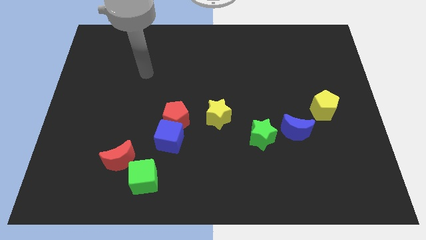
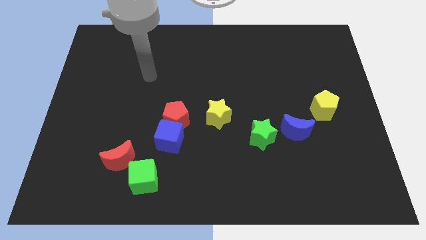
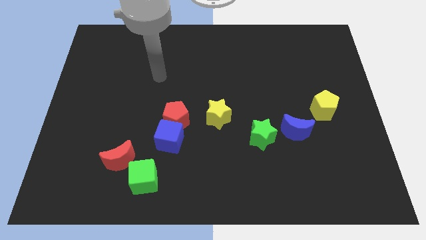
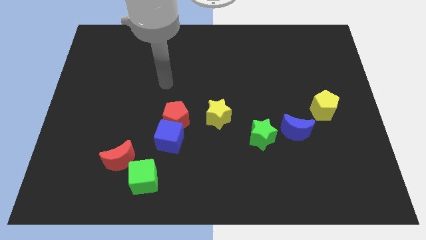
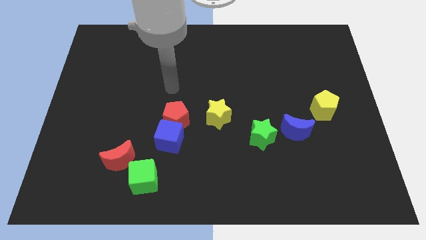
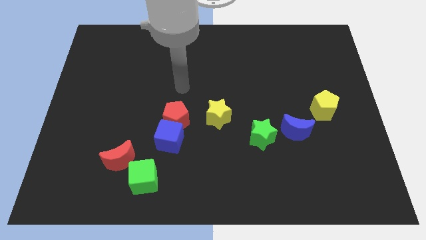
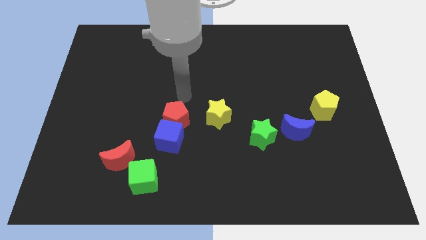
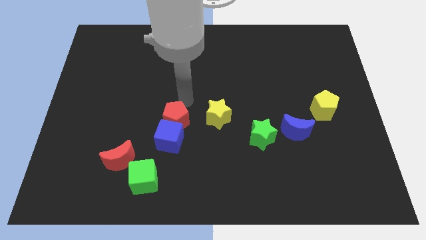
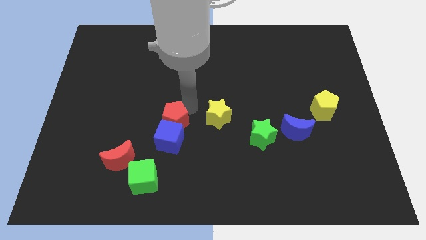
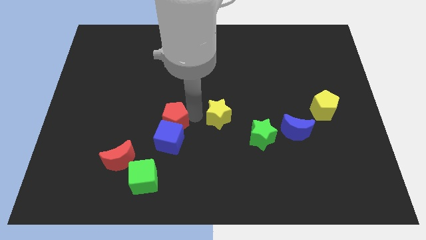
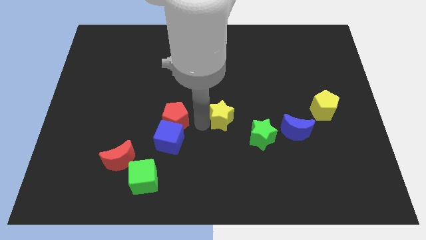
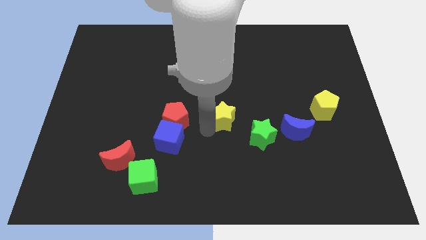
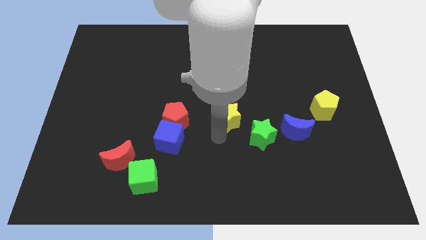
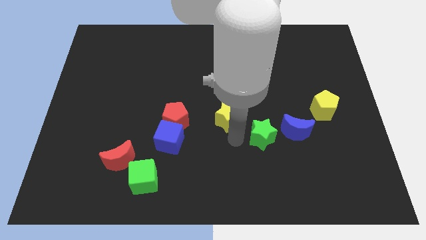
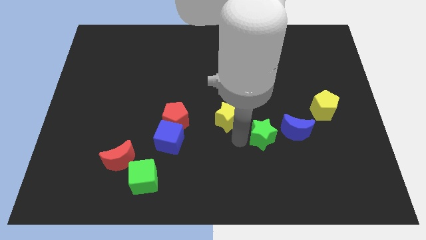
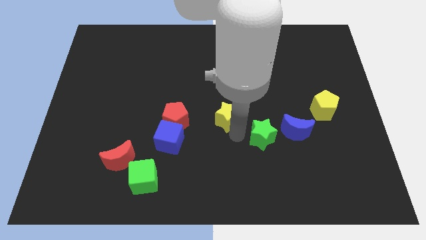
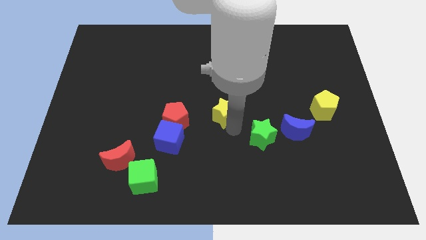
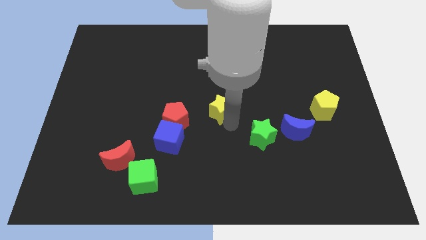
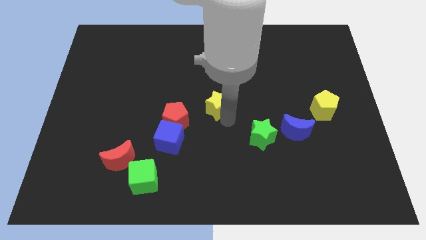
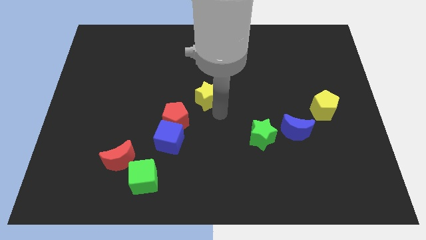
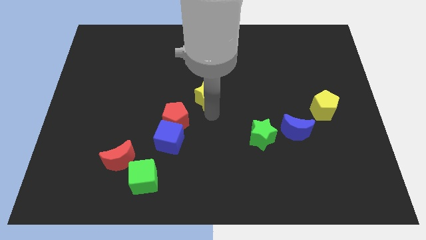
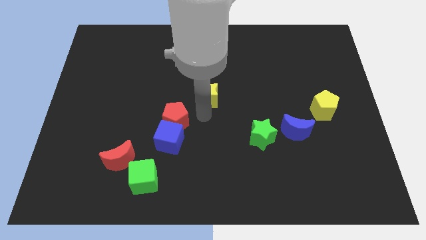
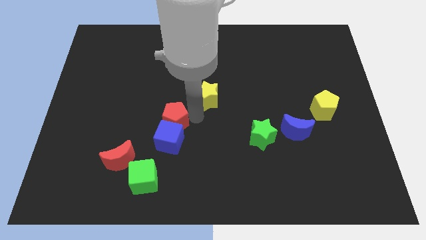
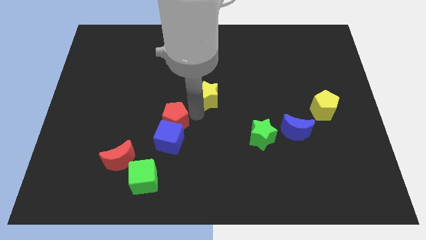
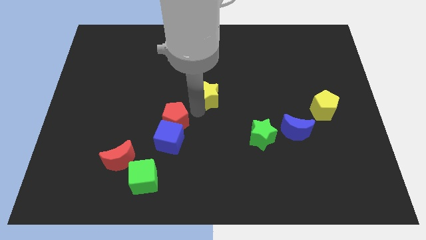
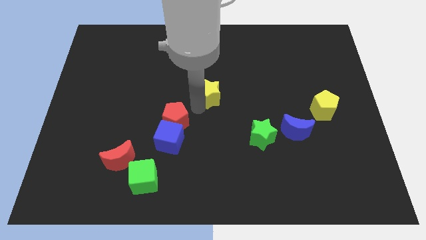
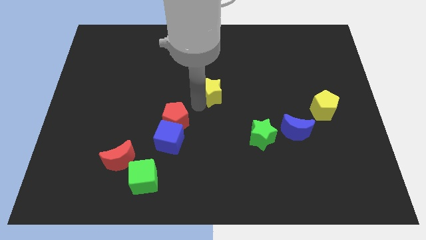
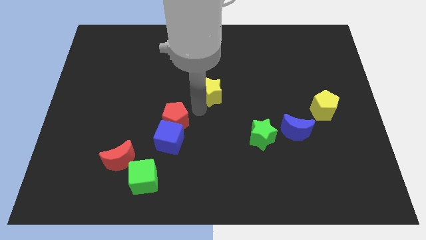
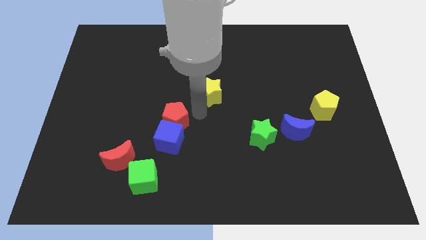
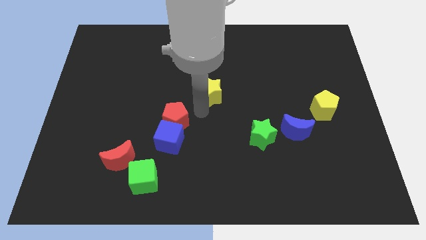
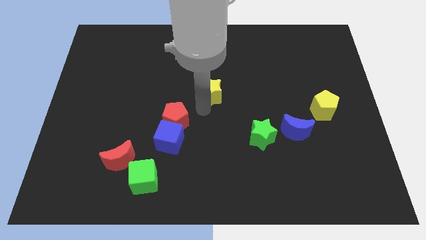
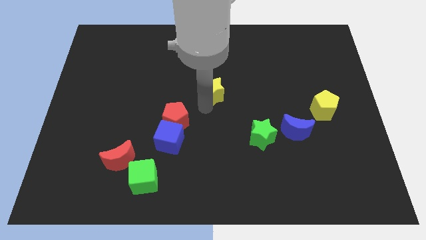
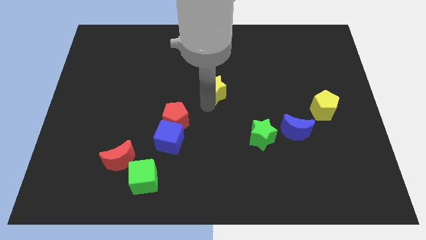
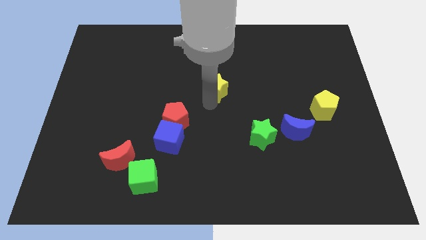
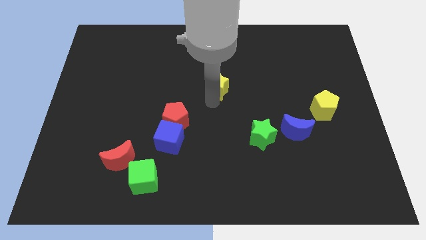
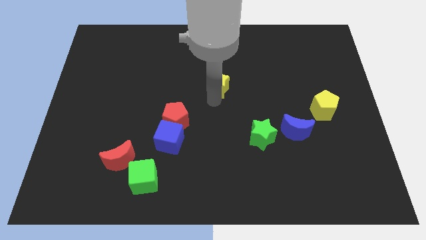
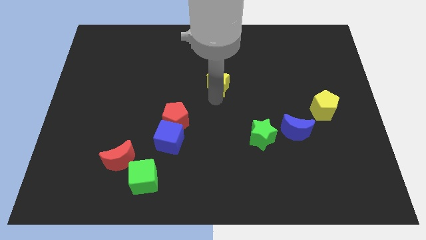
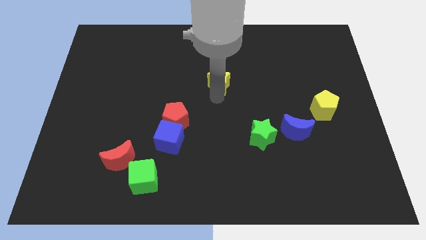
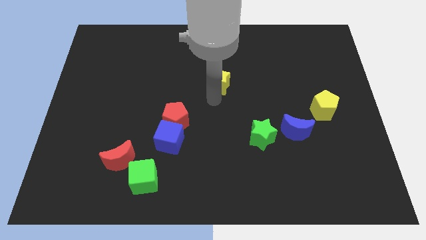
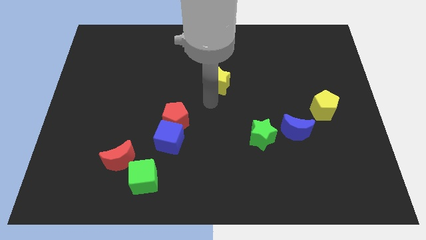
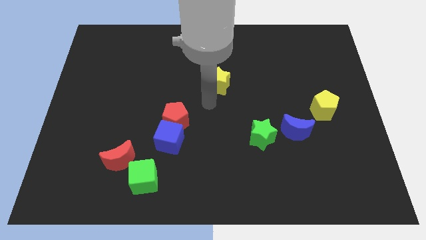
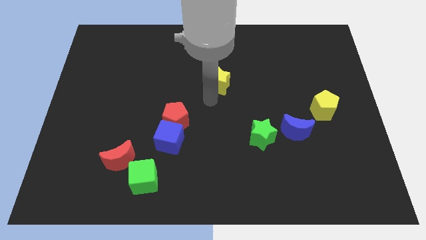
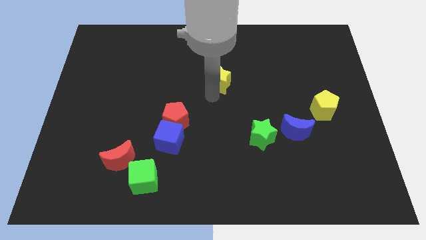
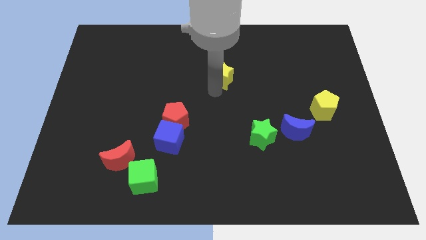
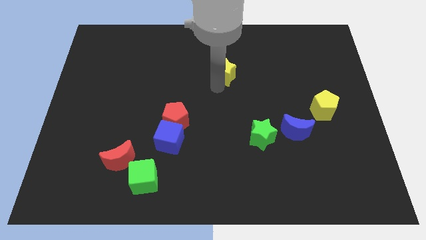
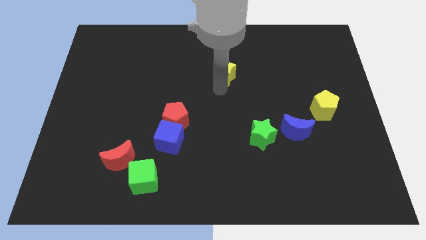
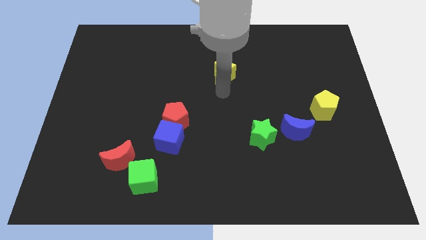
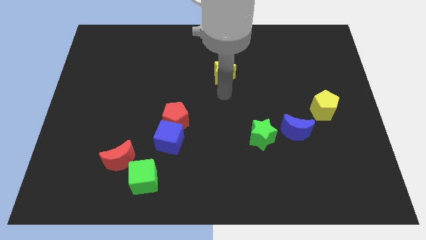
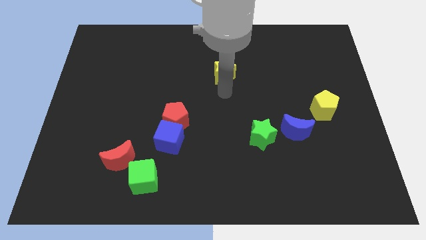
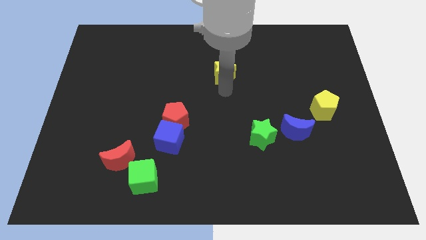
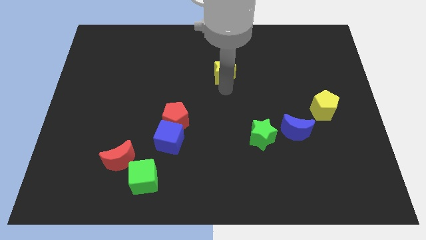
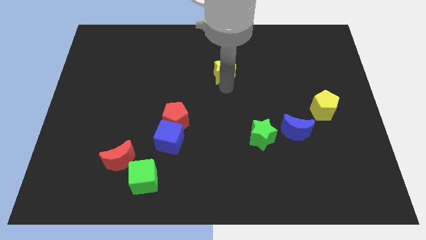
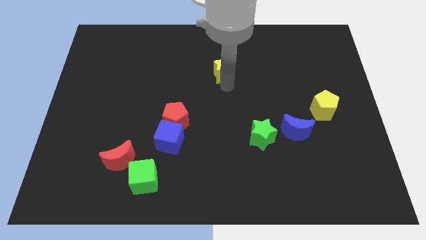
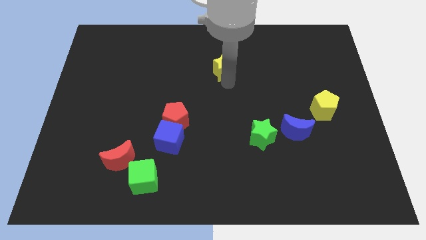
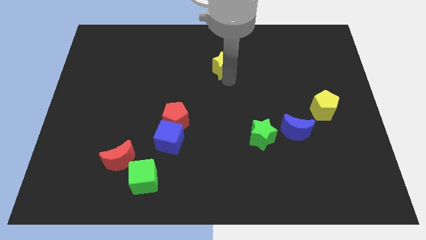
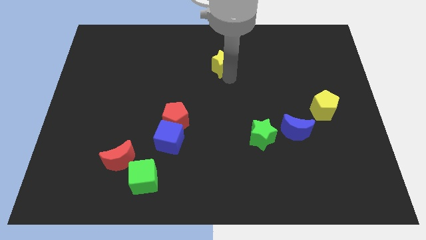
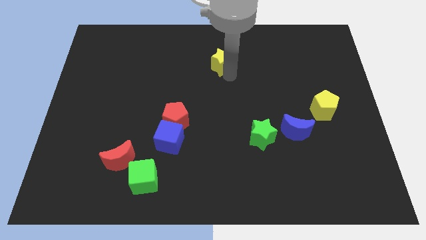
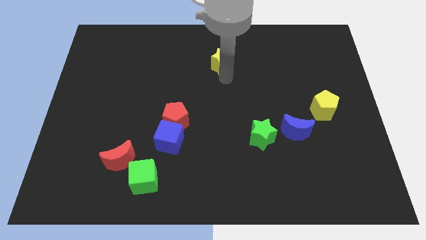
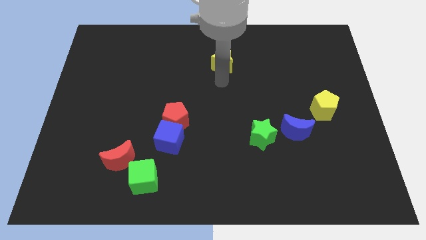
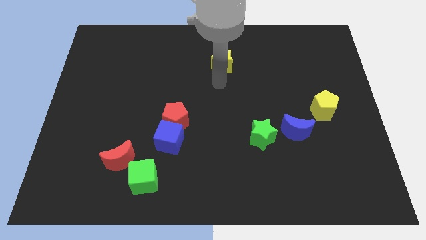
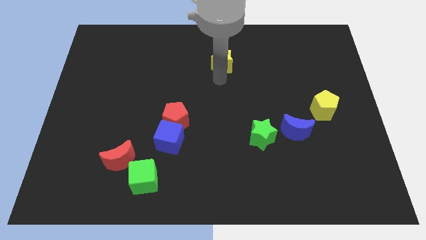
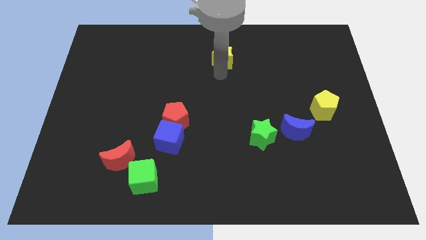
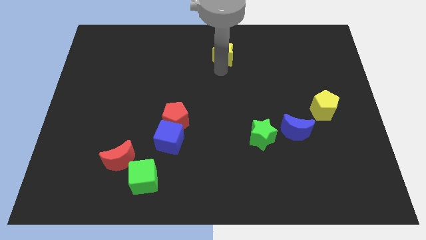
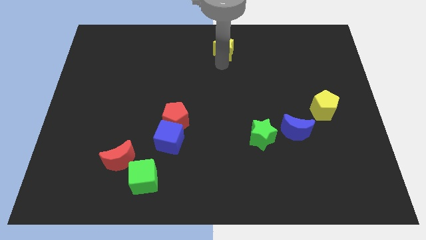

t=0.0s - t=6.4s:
move the yellow star to the top
